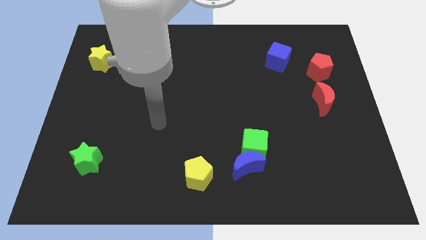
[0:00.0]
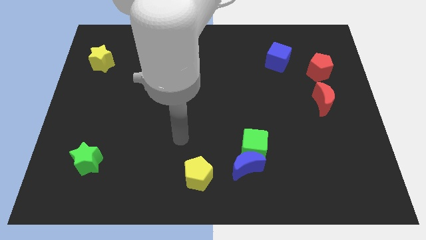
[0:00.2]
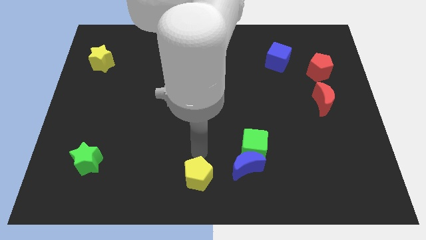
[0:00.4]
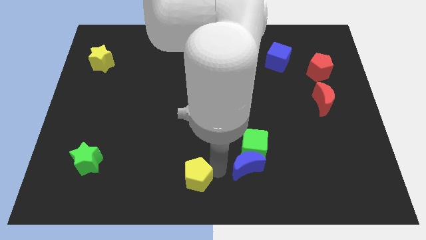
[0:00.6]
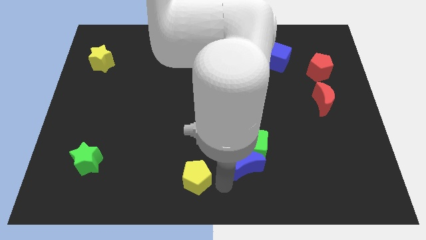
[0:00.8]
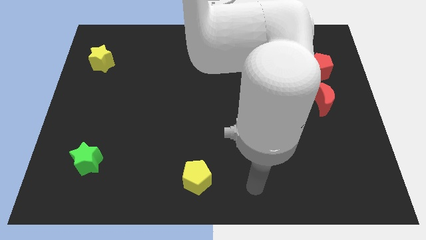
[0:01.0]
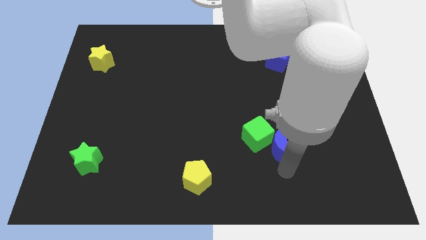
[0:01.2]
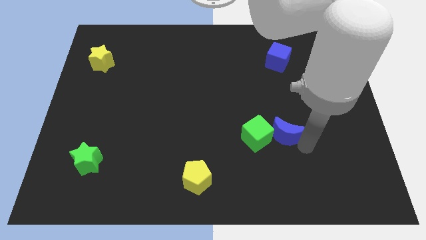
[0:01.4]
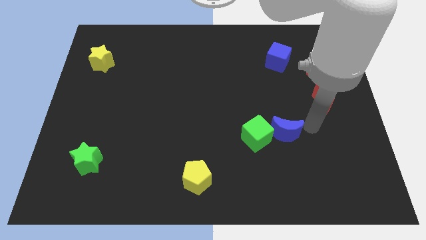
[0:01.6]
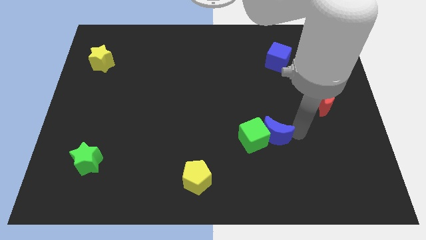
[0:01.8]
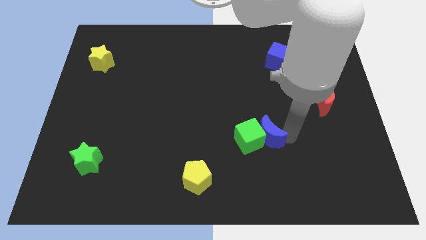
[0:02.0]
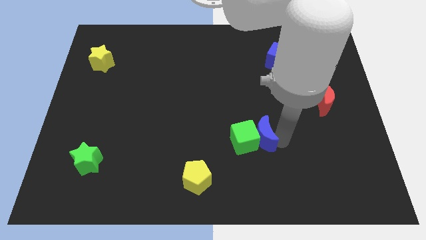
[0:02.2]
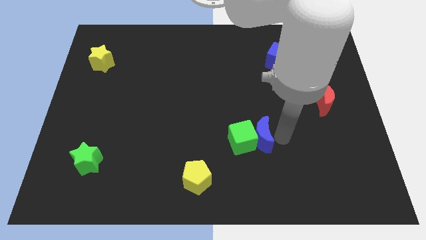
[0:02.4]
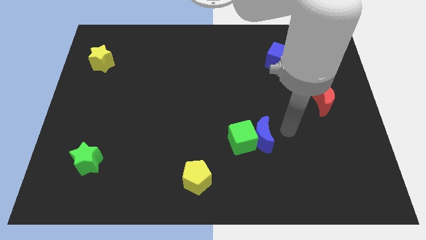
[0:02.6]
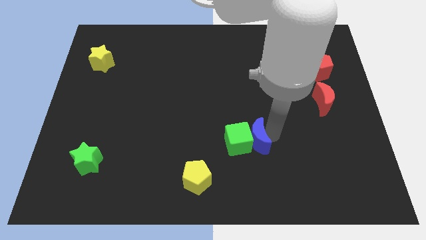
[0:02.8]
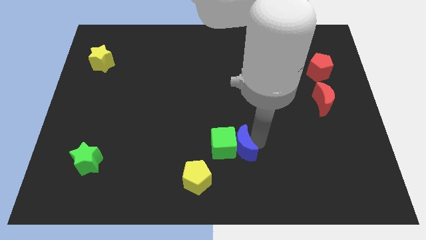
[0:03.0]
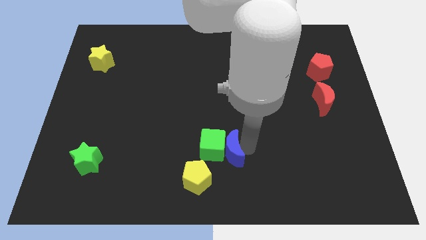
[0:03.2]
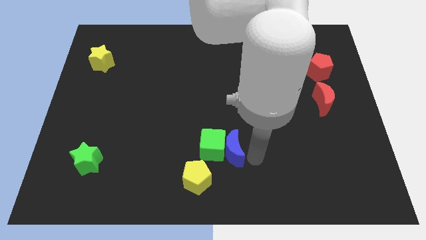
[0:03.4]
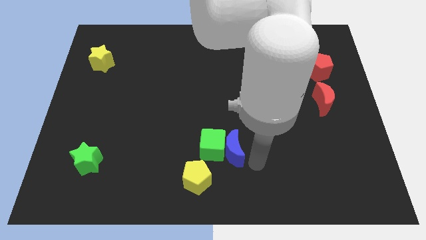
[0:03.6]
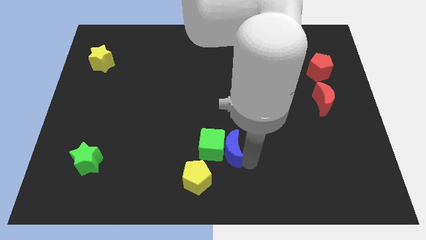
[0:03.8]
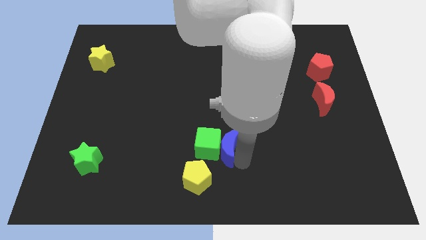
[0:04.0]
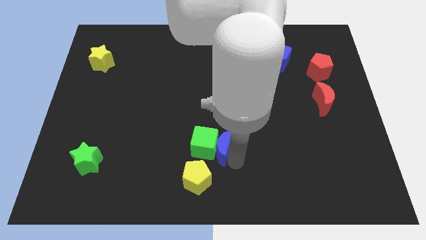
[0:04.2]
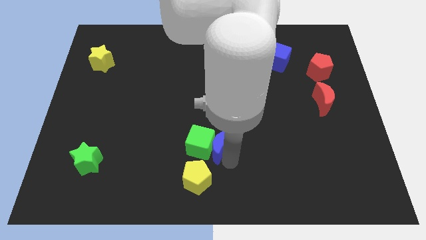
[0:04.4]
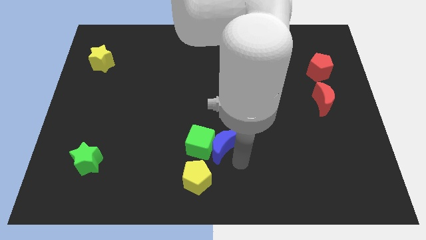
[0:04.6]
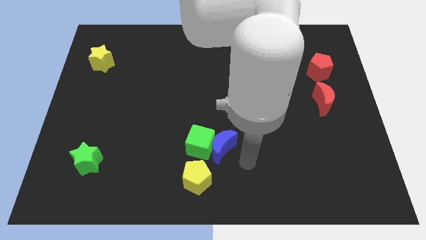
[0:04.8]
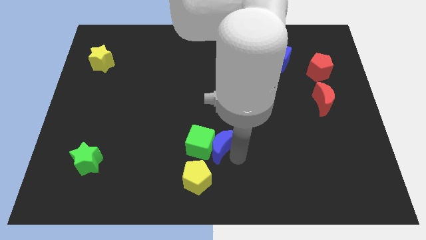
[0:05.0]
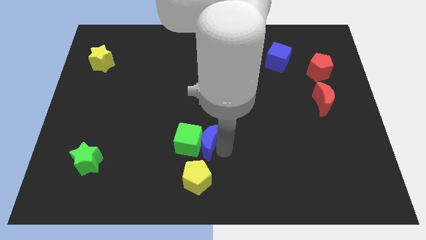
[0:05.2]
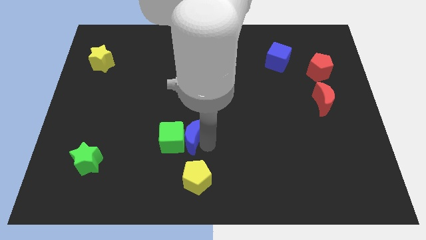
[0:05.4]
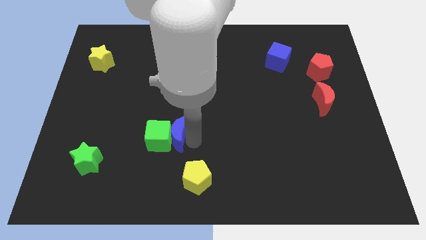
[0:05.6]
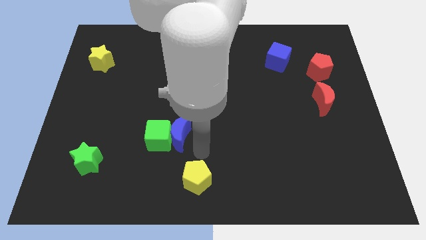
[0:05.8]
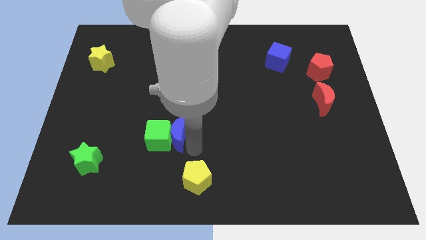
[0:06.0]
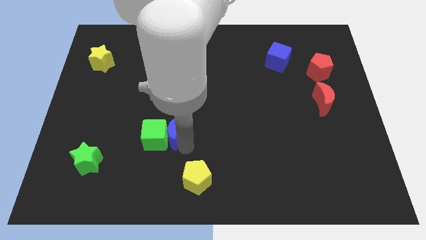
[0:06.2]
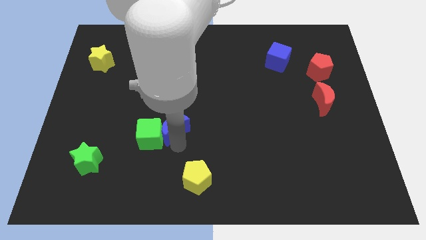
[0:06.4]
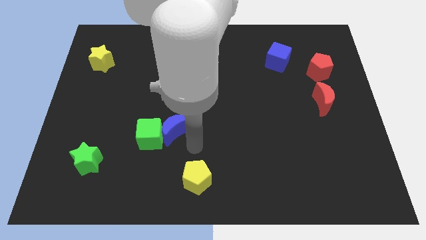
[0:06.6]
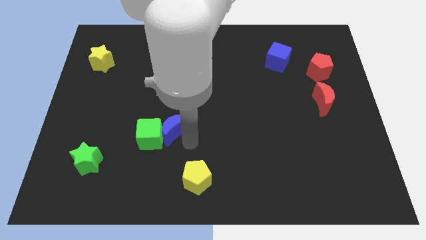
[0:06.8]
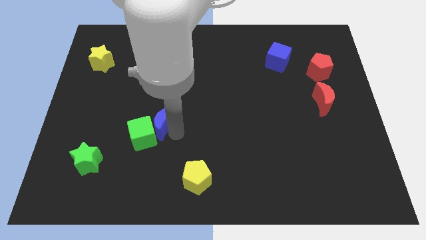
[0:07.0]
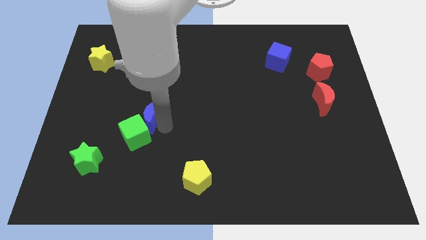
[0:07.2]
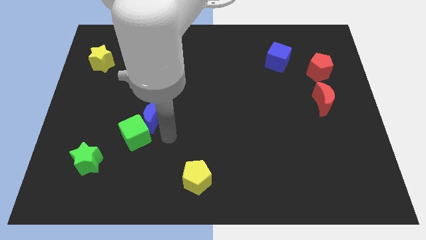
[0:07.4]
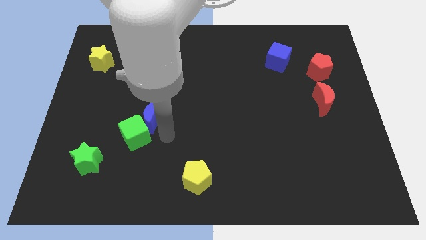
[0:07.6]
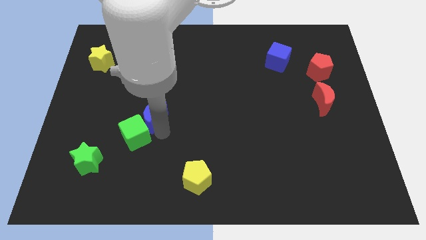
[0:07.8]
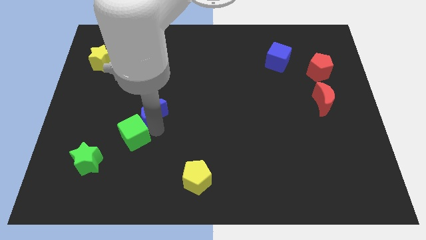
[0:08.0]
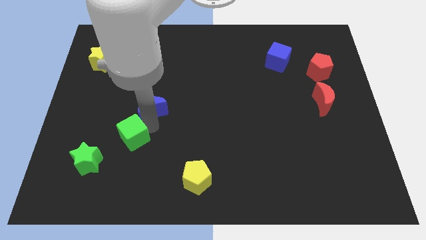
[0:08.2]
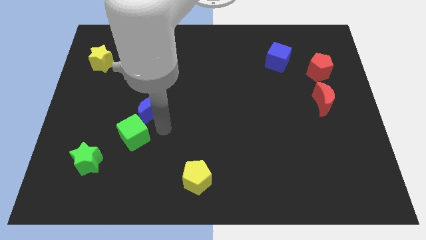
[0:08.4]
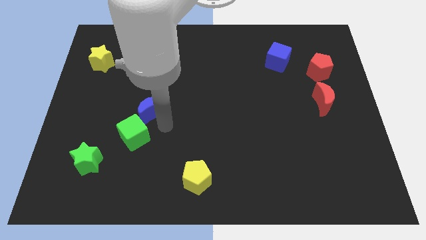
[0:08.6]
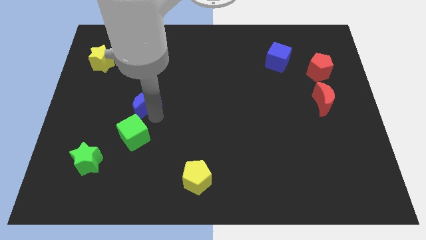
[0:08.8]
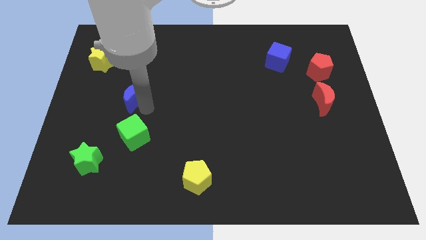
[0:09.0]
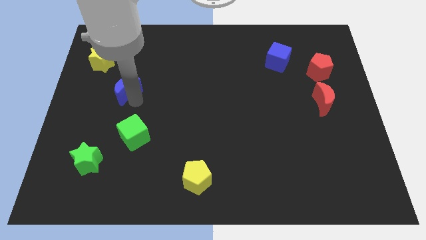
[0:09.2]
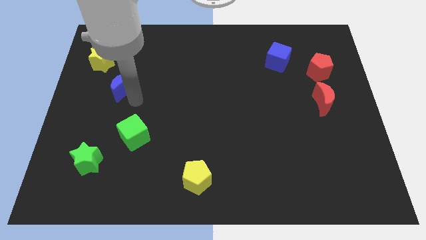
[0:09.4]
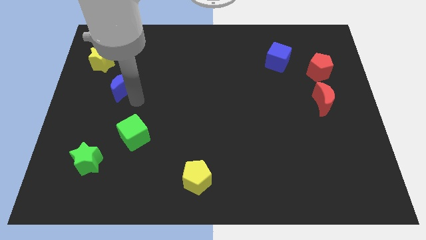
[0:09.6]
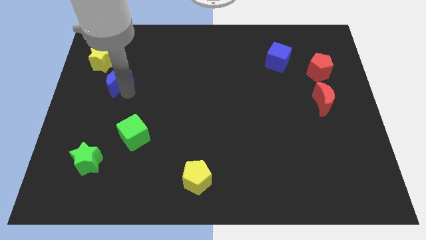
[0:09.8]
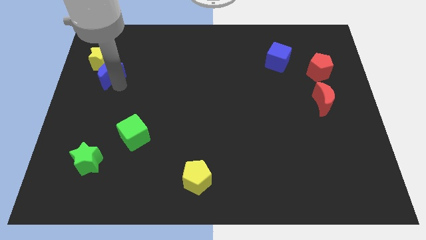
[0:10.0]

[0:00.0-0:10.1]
push the blue moon next to the yellow star

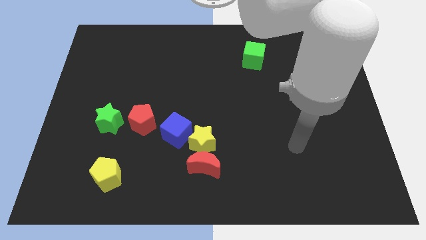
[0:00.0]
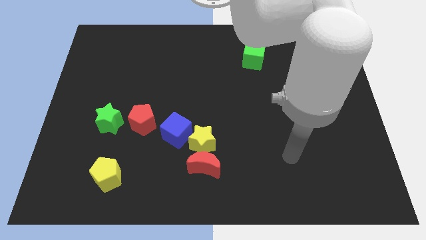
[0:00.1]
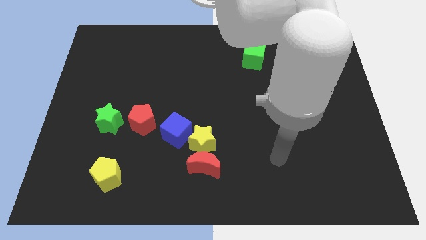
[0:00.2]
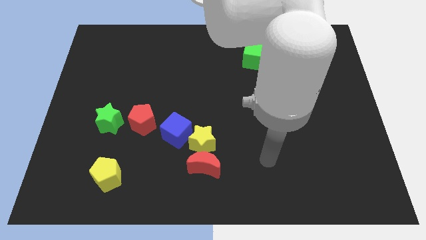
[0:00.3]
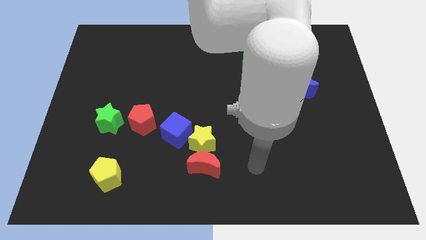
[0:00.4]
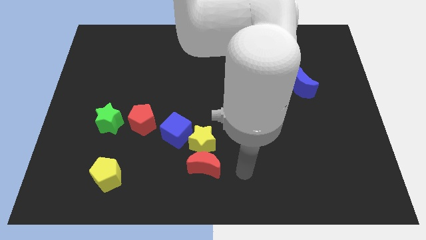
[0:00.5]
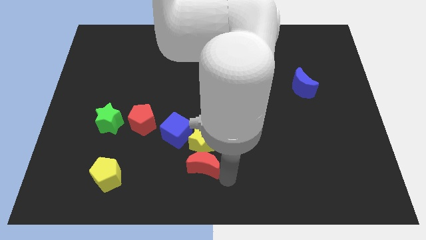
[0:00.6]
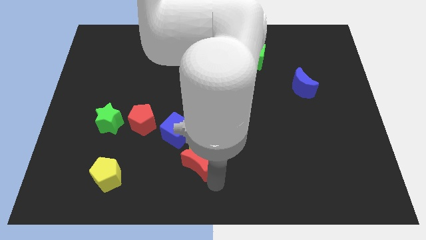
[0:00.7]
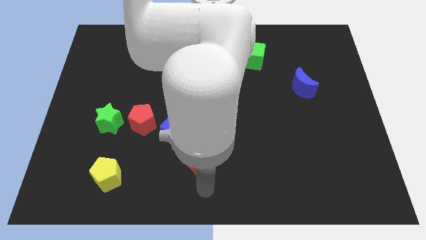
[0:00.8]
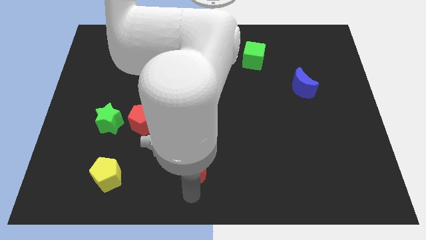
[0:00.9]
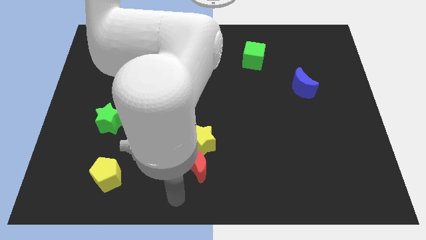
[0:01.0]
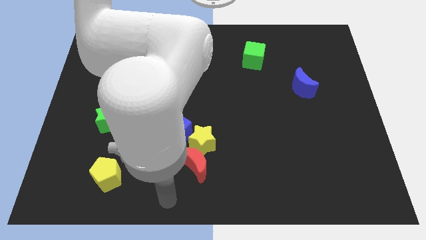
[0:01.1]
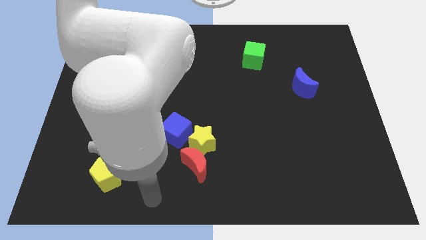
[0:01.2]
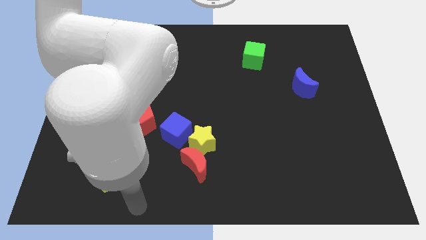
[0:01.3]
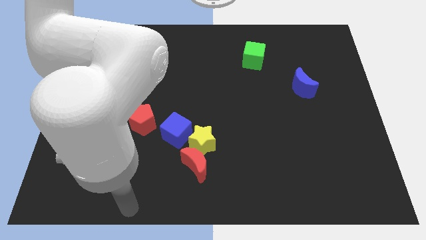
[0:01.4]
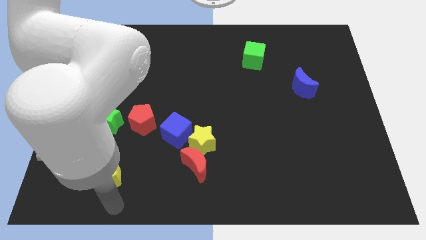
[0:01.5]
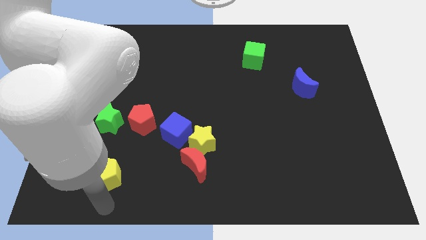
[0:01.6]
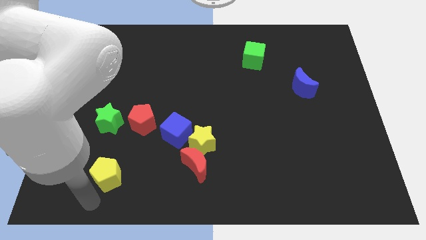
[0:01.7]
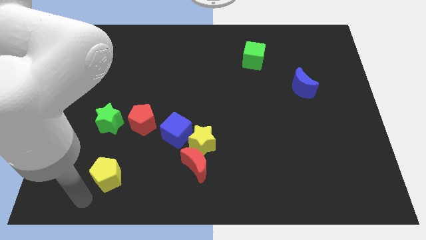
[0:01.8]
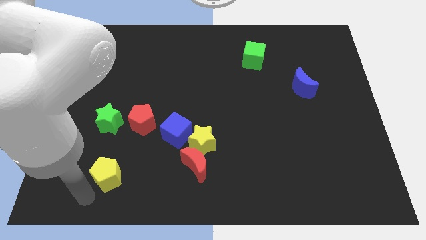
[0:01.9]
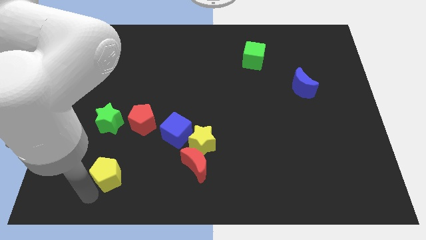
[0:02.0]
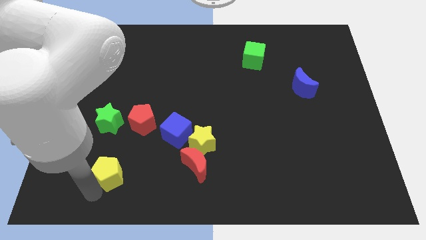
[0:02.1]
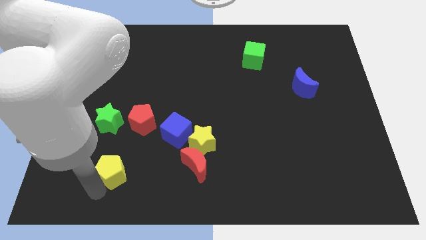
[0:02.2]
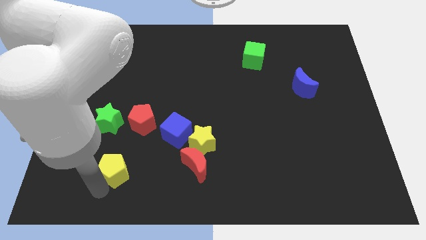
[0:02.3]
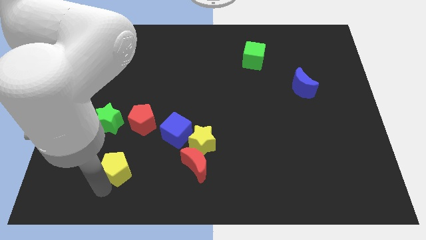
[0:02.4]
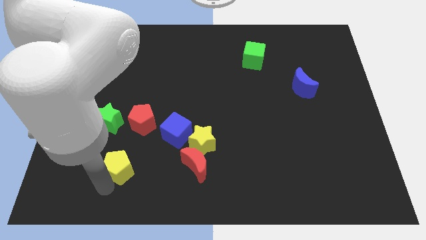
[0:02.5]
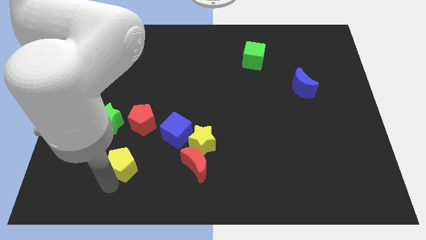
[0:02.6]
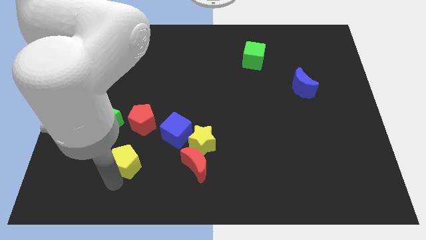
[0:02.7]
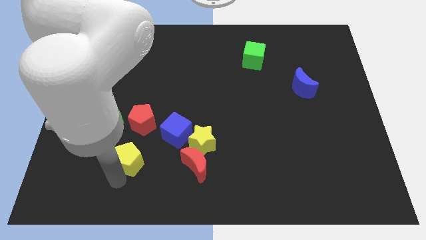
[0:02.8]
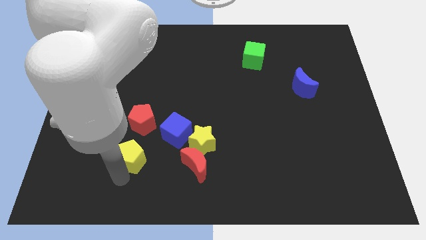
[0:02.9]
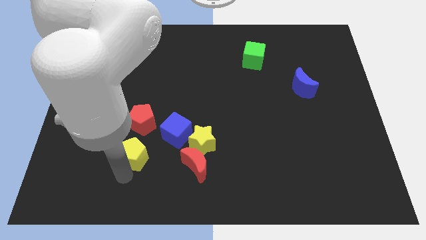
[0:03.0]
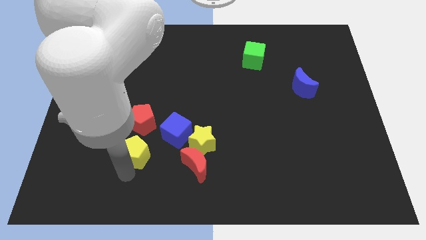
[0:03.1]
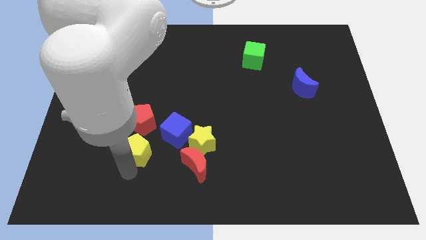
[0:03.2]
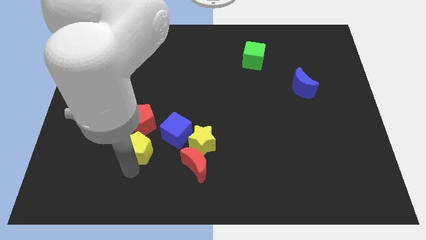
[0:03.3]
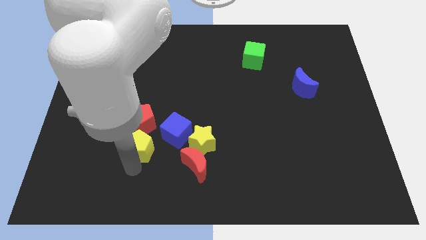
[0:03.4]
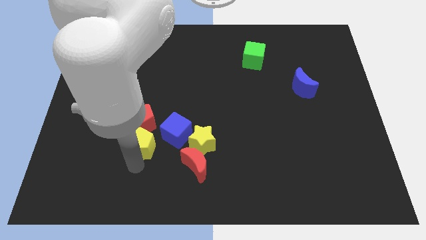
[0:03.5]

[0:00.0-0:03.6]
push the yellow pentagon next to the red pentagon
